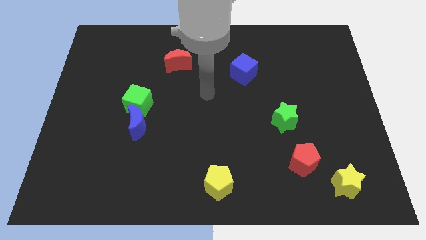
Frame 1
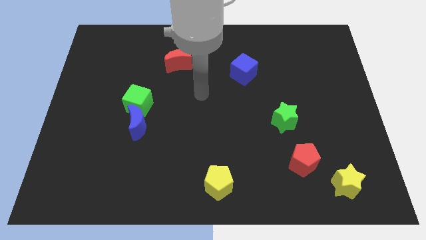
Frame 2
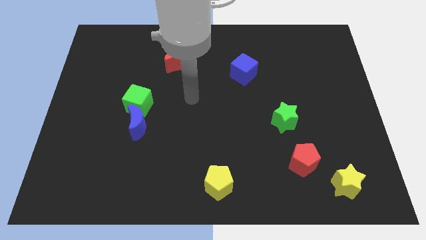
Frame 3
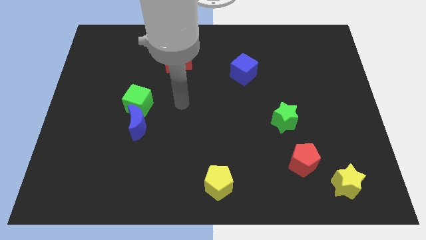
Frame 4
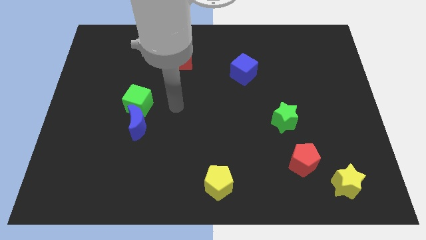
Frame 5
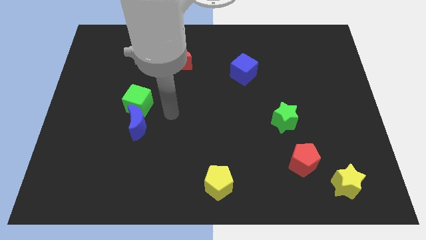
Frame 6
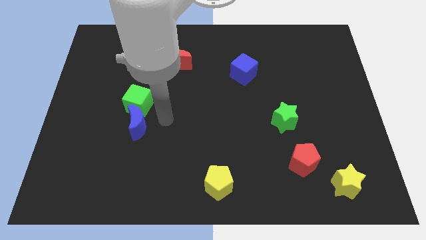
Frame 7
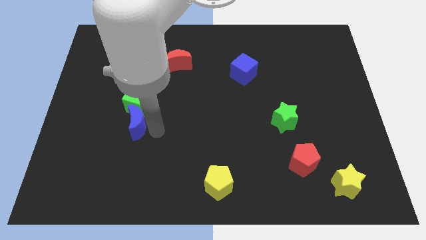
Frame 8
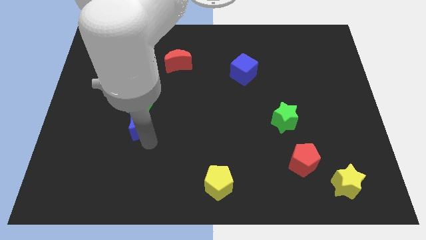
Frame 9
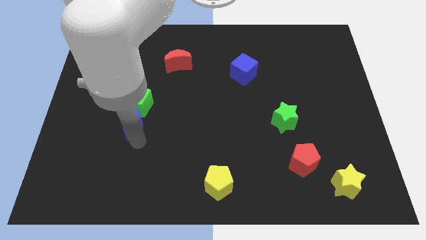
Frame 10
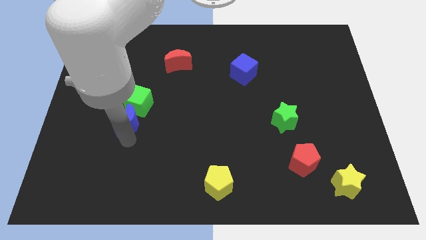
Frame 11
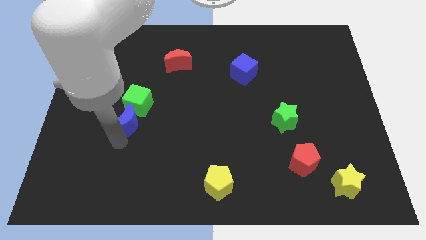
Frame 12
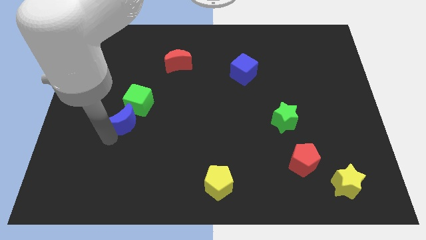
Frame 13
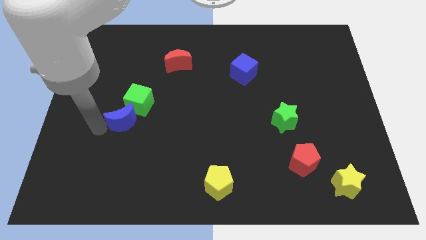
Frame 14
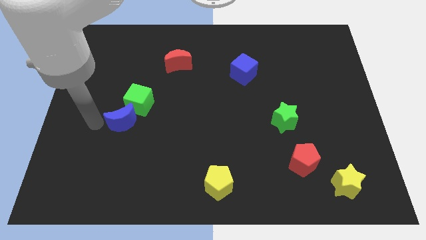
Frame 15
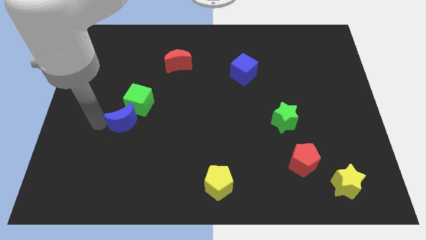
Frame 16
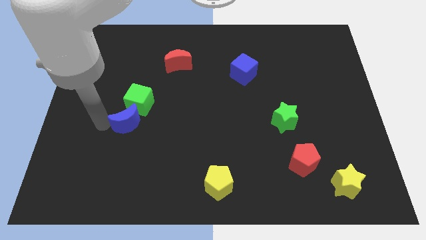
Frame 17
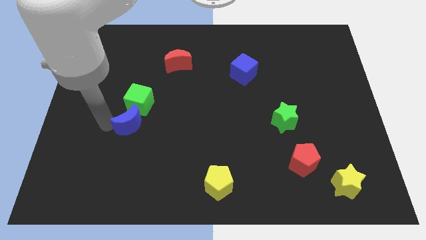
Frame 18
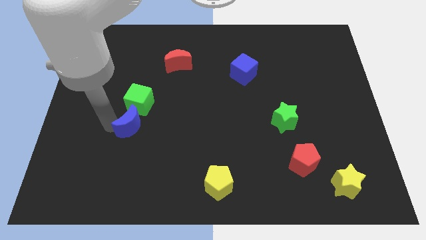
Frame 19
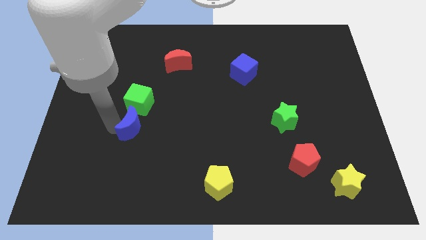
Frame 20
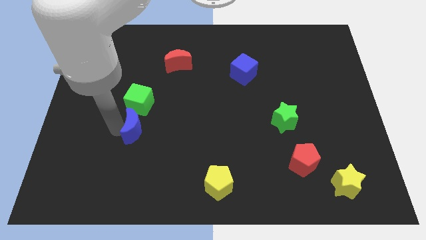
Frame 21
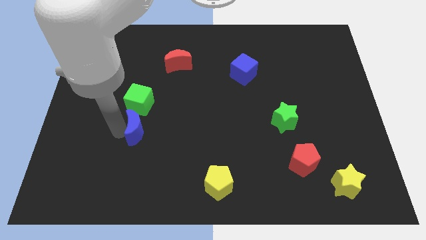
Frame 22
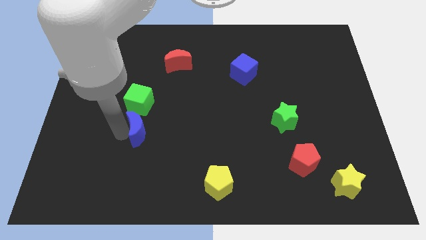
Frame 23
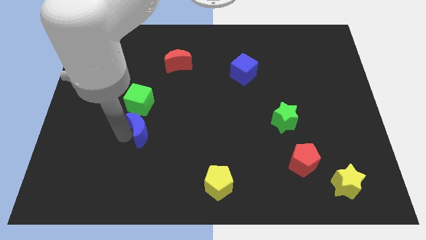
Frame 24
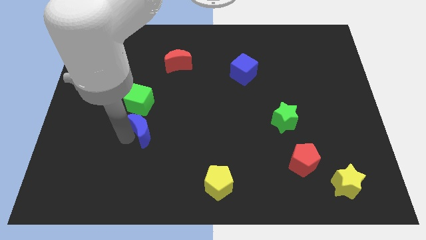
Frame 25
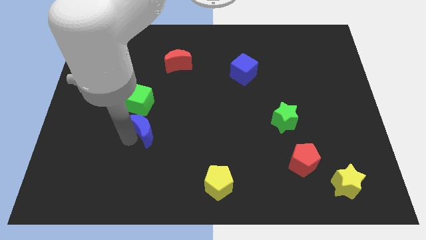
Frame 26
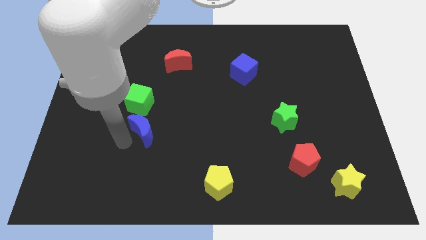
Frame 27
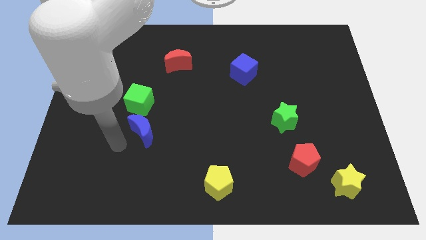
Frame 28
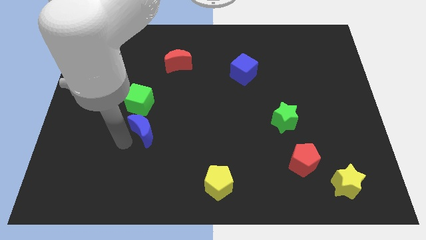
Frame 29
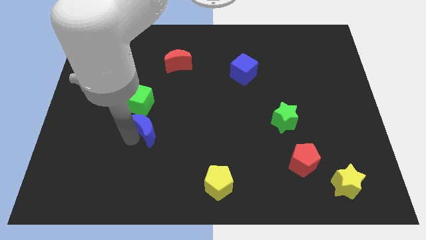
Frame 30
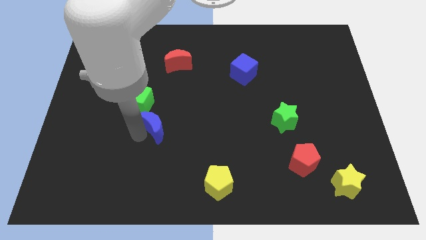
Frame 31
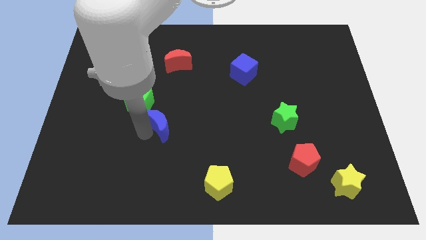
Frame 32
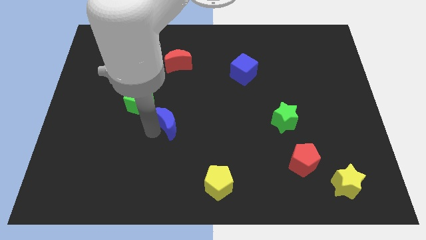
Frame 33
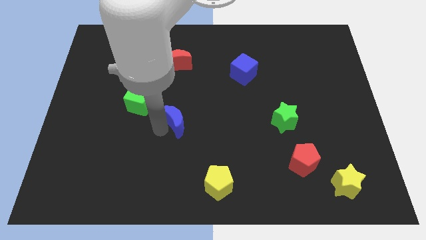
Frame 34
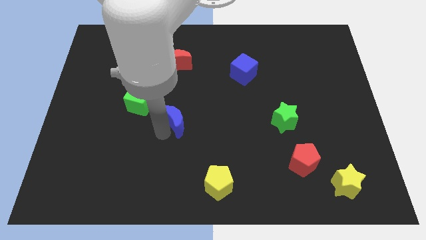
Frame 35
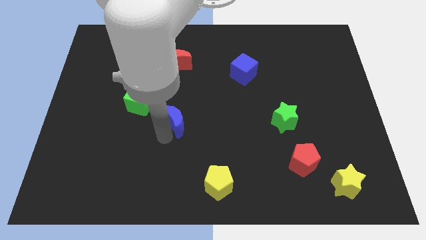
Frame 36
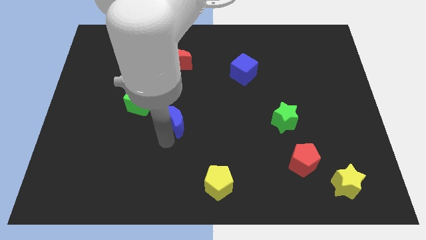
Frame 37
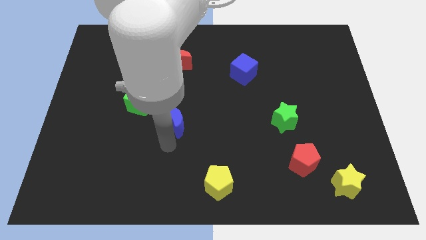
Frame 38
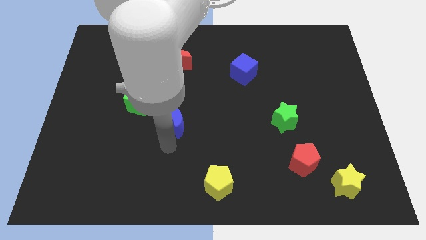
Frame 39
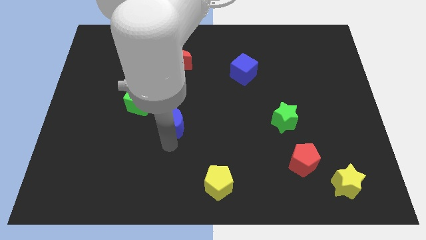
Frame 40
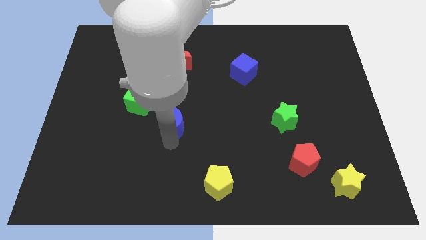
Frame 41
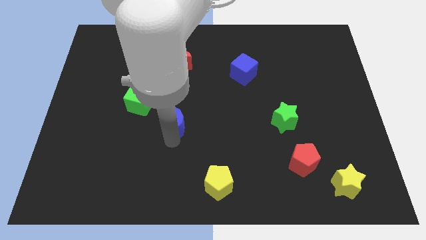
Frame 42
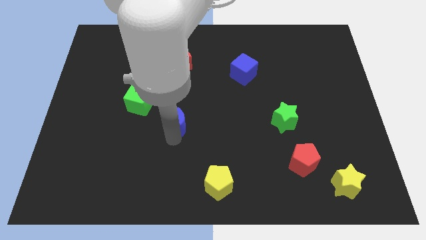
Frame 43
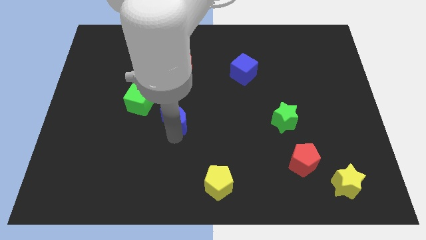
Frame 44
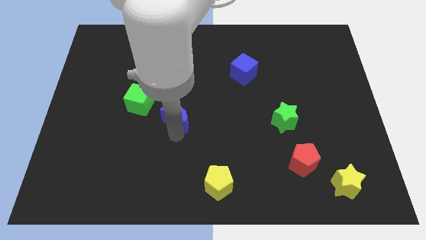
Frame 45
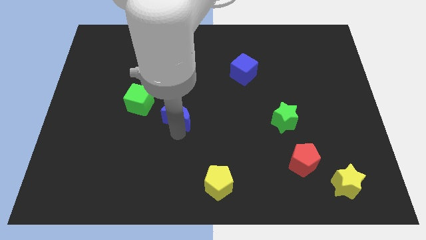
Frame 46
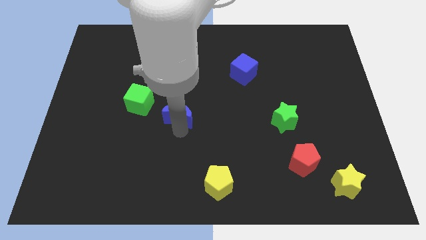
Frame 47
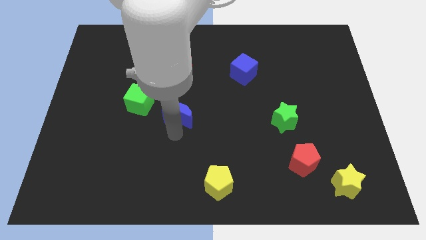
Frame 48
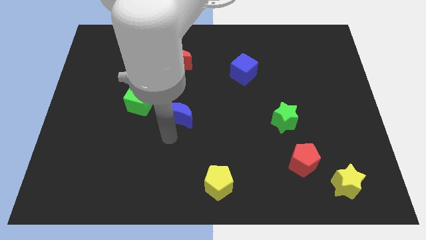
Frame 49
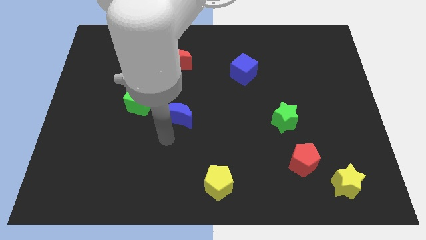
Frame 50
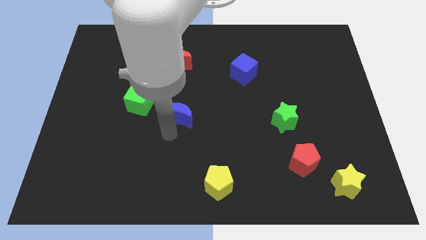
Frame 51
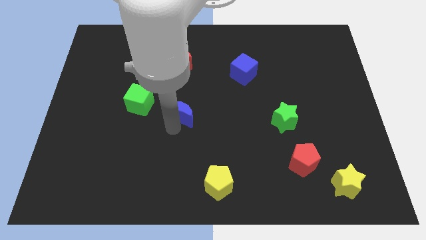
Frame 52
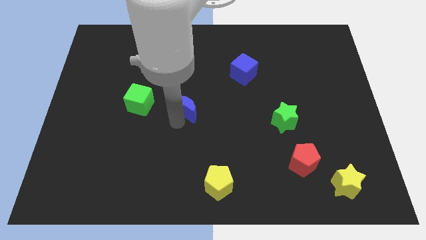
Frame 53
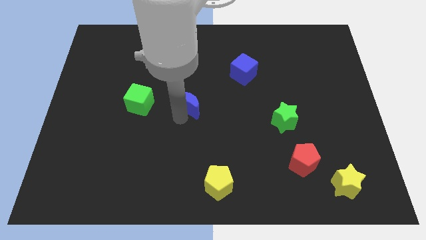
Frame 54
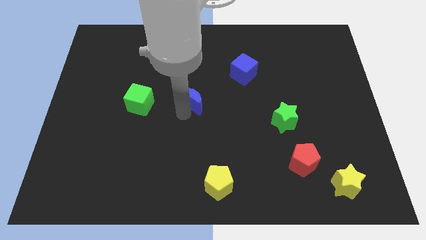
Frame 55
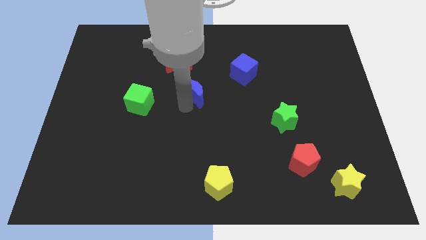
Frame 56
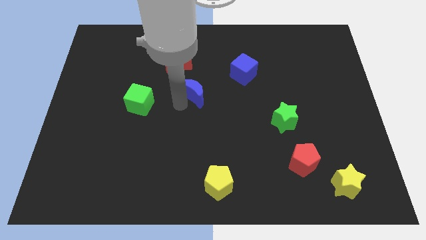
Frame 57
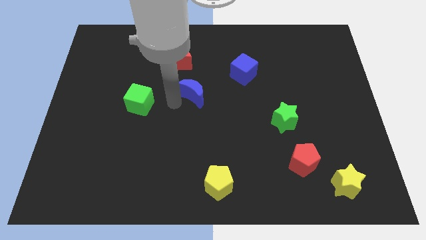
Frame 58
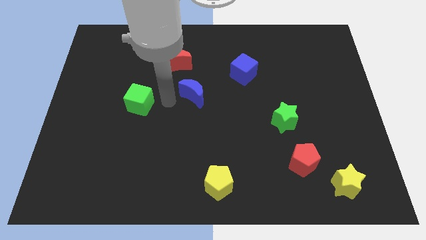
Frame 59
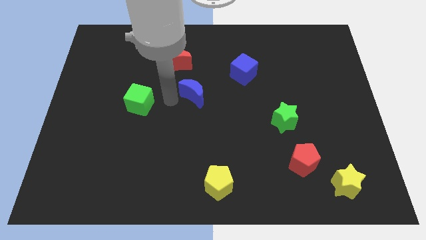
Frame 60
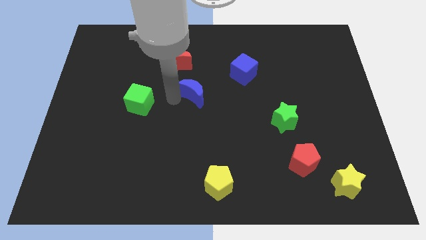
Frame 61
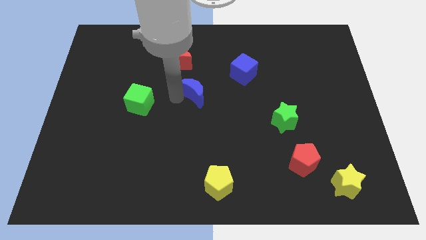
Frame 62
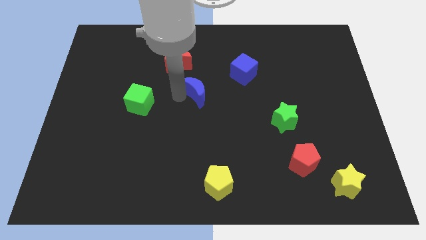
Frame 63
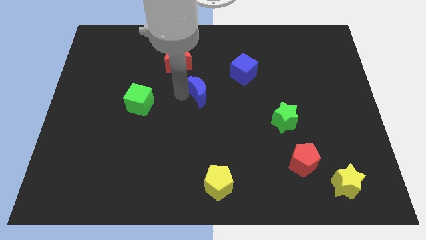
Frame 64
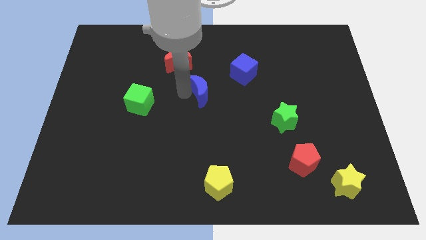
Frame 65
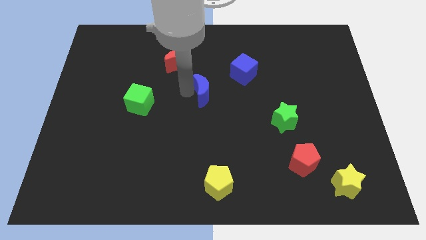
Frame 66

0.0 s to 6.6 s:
slide the blue moon diagonally down and to the left of the blue cube

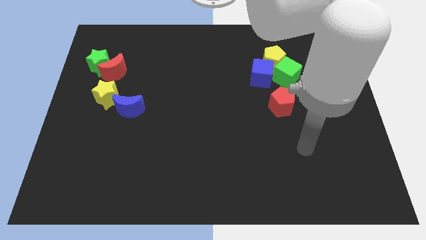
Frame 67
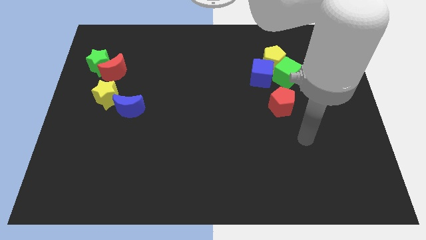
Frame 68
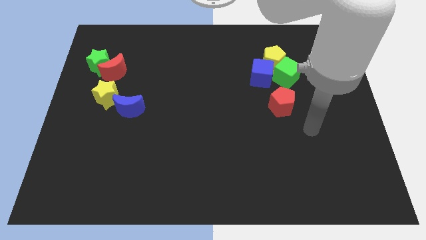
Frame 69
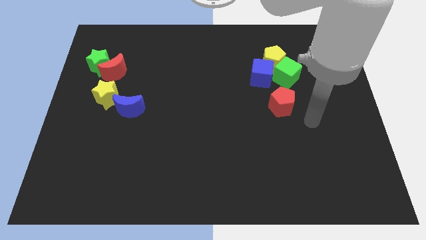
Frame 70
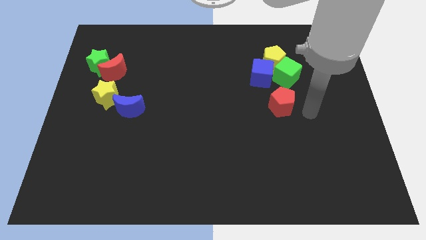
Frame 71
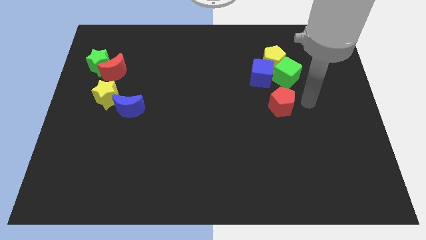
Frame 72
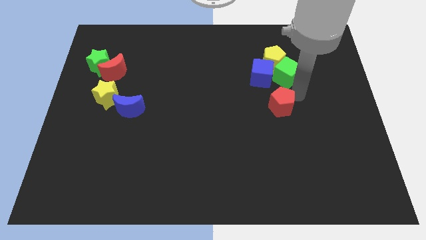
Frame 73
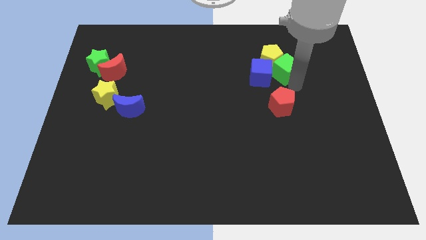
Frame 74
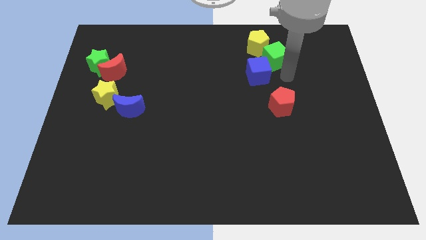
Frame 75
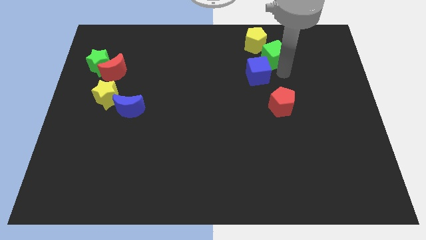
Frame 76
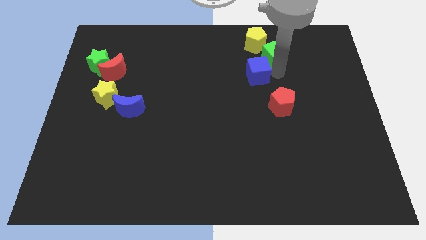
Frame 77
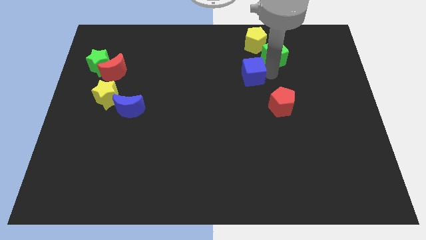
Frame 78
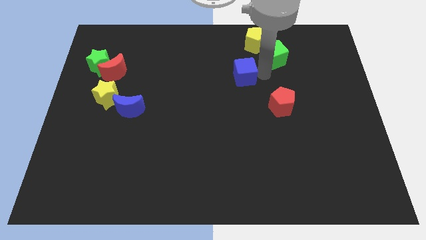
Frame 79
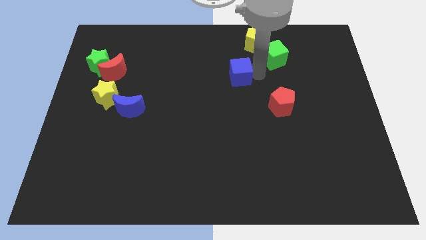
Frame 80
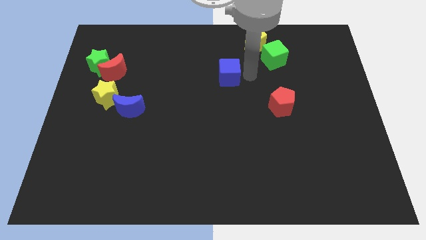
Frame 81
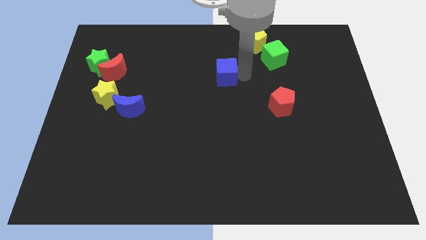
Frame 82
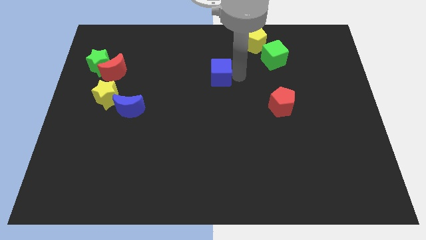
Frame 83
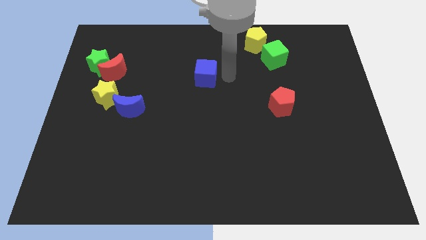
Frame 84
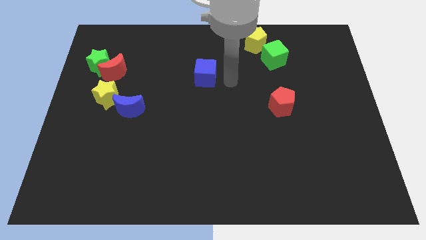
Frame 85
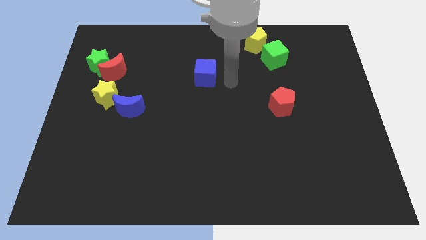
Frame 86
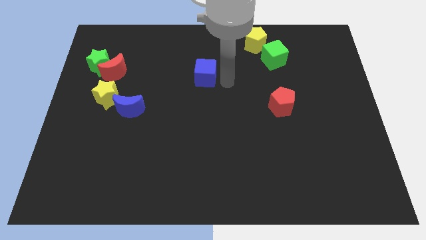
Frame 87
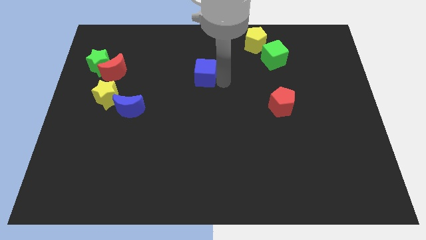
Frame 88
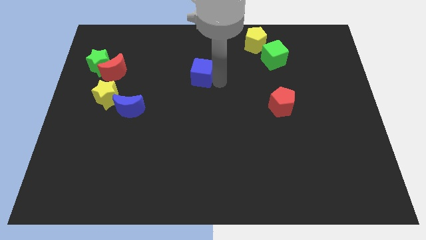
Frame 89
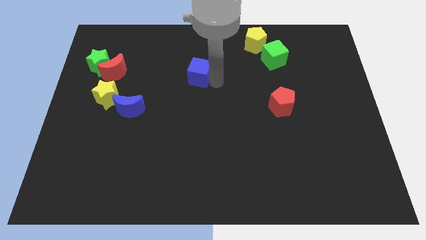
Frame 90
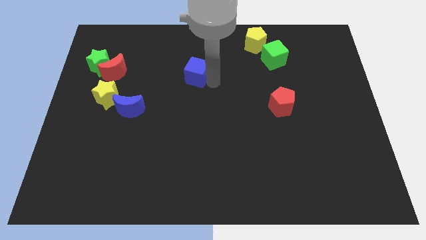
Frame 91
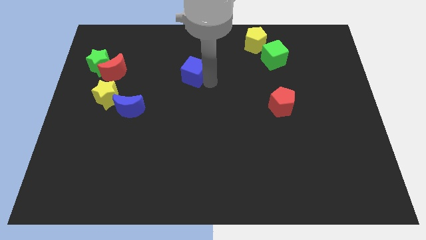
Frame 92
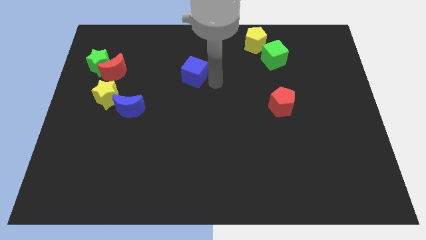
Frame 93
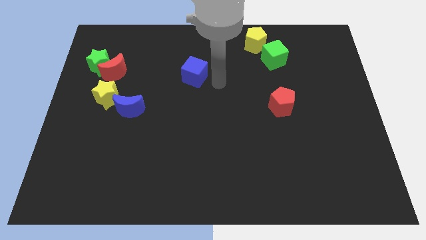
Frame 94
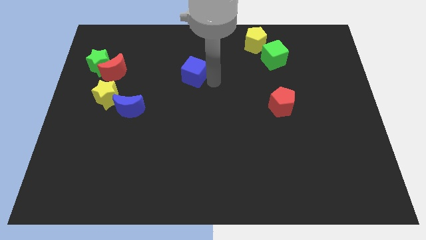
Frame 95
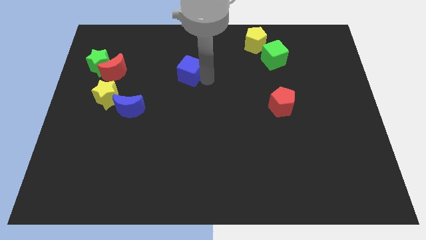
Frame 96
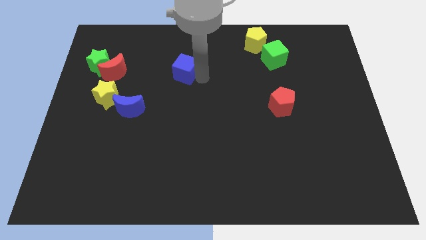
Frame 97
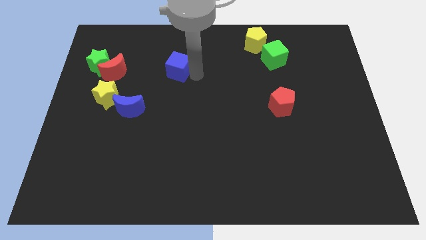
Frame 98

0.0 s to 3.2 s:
push the blue cube to the right side of the red moon
